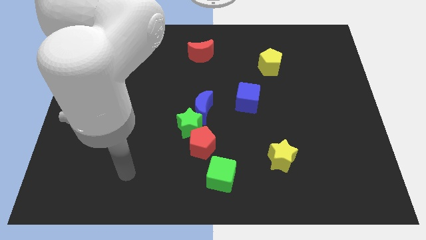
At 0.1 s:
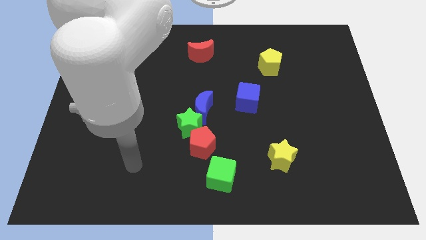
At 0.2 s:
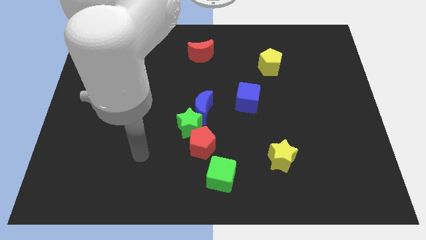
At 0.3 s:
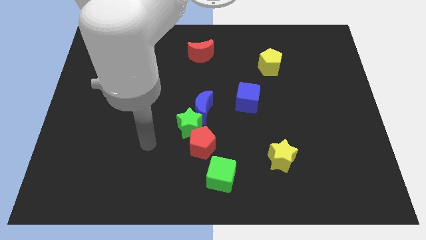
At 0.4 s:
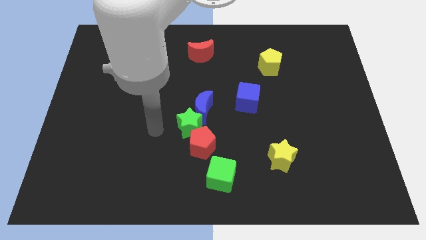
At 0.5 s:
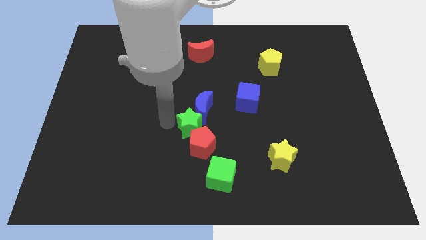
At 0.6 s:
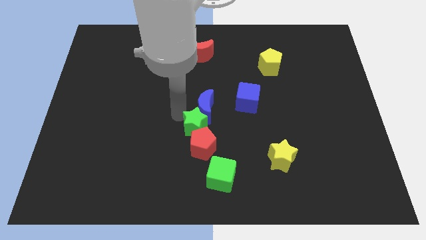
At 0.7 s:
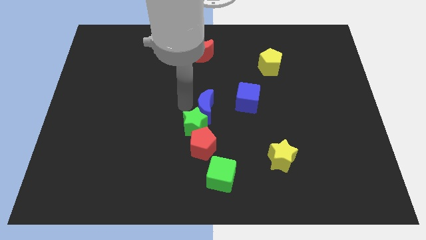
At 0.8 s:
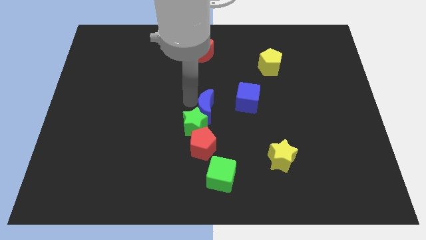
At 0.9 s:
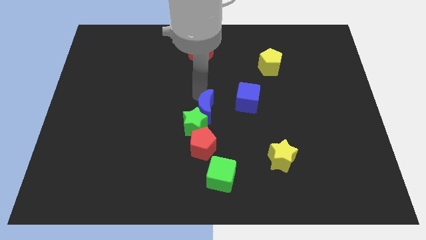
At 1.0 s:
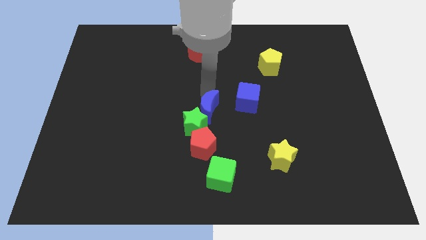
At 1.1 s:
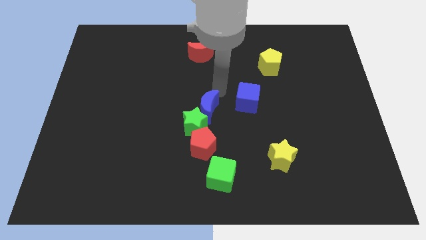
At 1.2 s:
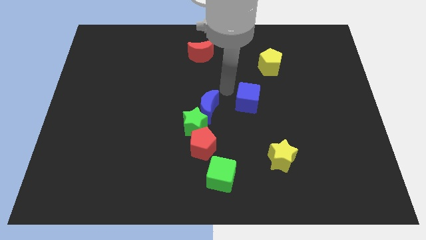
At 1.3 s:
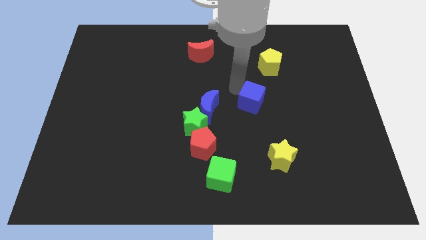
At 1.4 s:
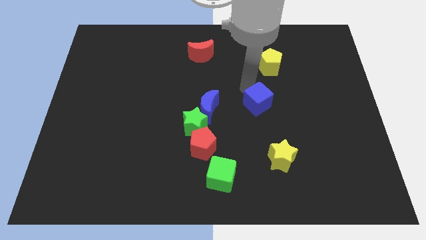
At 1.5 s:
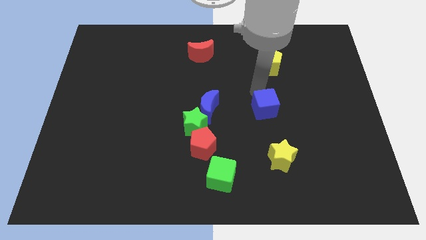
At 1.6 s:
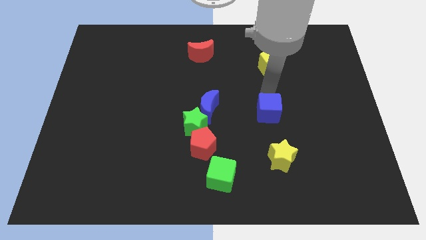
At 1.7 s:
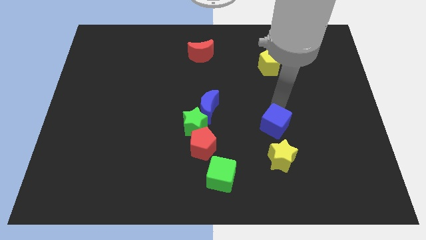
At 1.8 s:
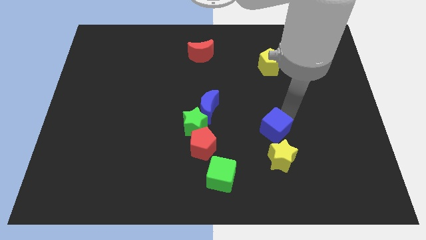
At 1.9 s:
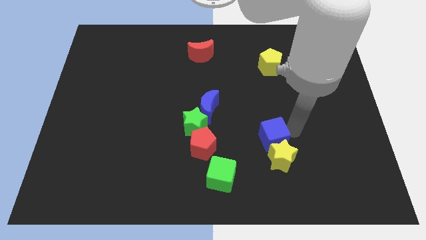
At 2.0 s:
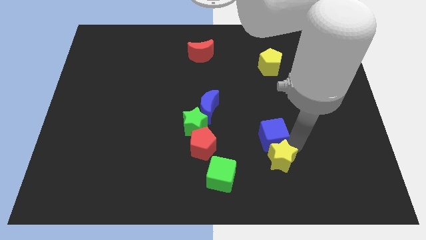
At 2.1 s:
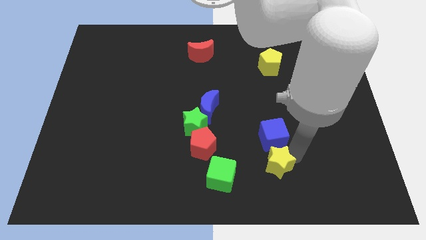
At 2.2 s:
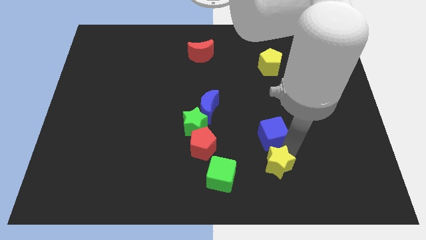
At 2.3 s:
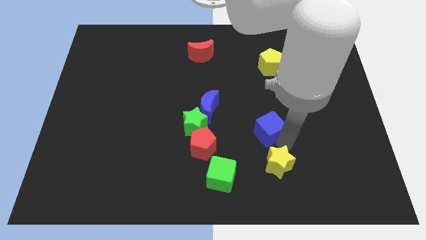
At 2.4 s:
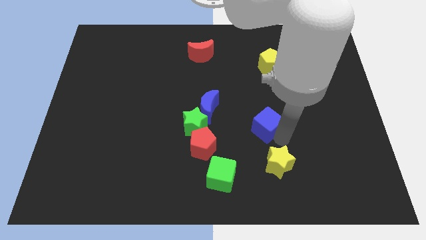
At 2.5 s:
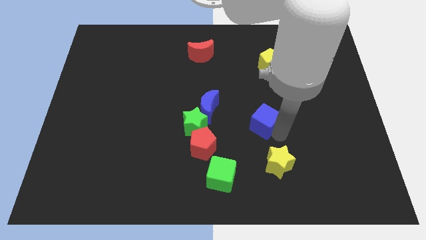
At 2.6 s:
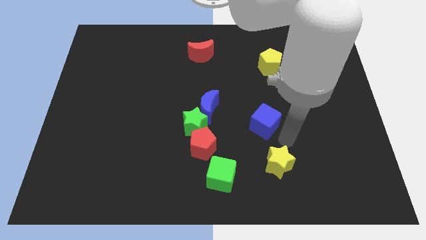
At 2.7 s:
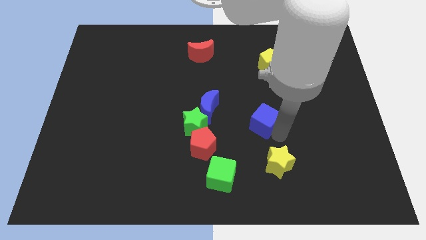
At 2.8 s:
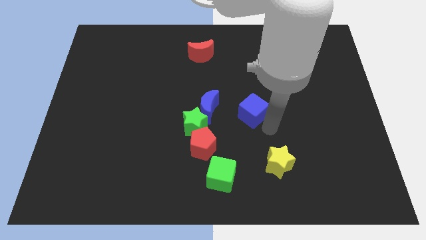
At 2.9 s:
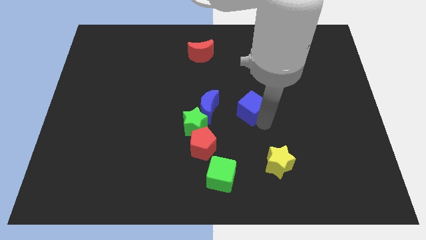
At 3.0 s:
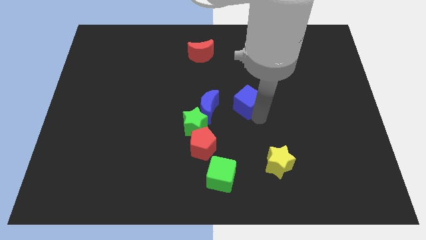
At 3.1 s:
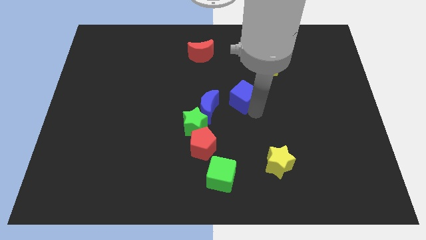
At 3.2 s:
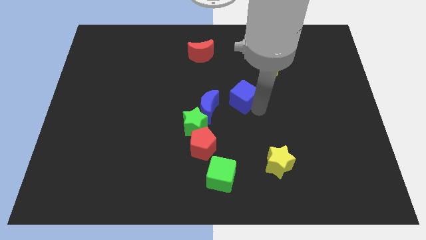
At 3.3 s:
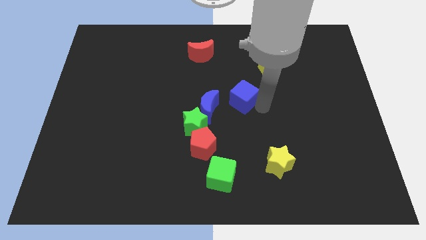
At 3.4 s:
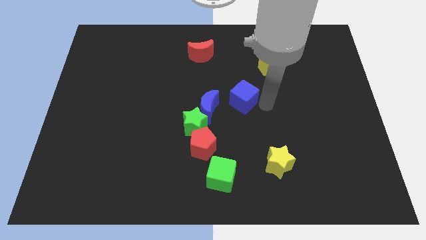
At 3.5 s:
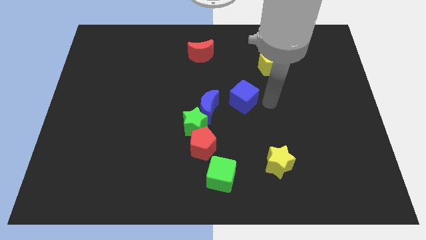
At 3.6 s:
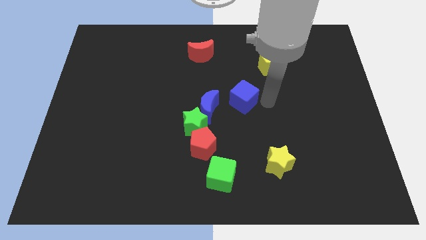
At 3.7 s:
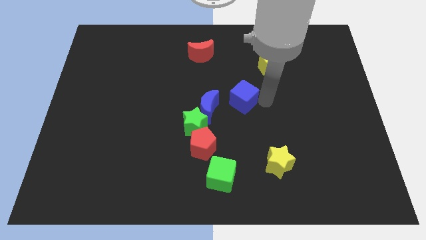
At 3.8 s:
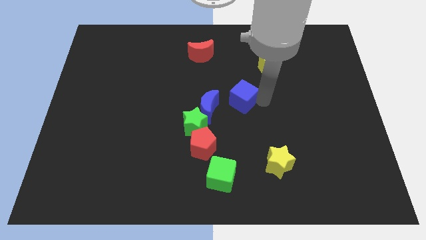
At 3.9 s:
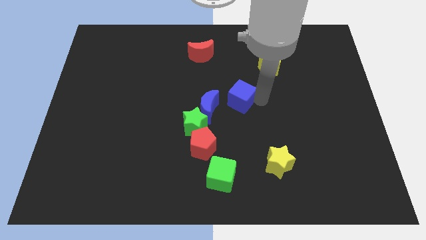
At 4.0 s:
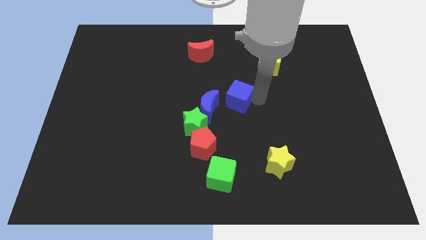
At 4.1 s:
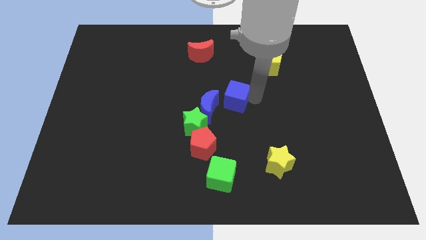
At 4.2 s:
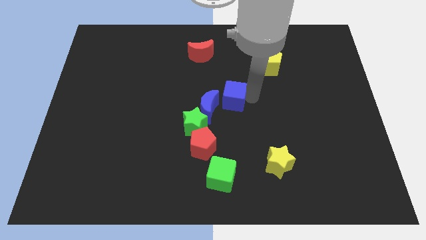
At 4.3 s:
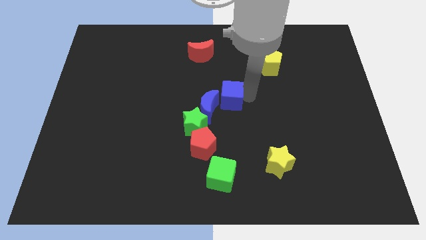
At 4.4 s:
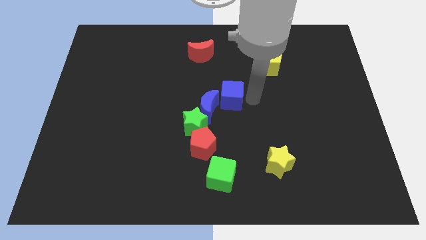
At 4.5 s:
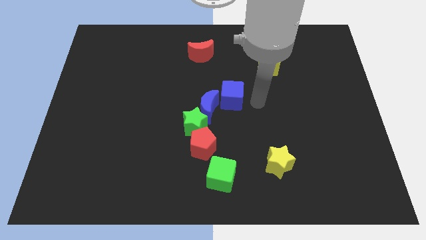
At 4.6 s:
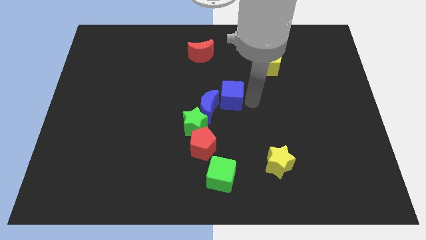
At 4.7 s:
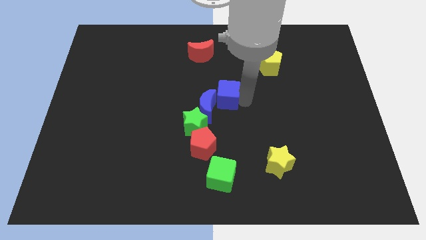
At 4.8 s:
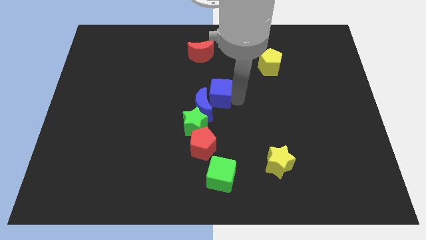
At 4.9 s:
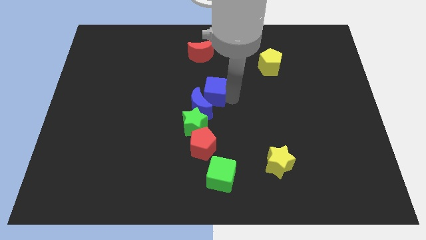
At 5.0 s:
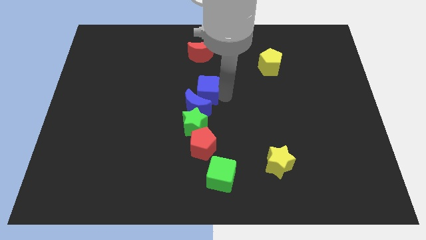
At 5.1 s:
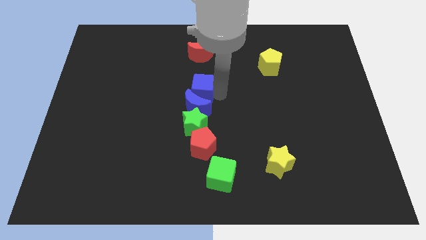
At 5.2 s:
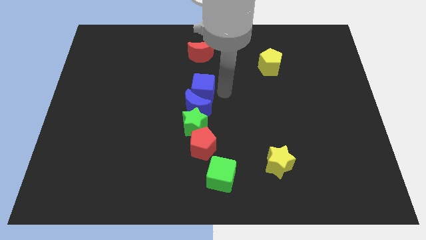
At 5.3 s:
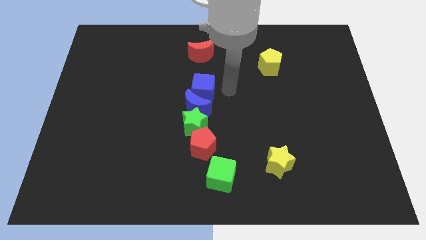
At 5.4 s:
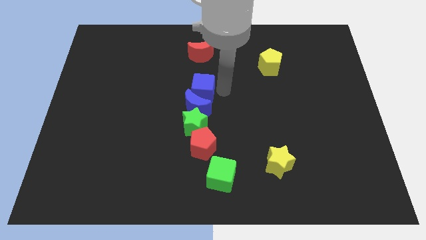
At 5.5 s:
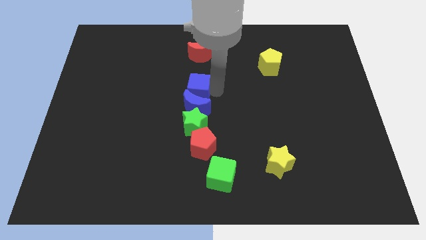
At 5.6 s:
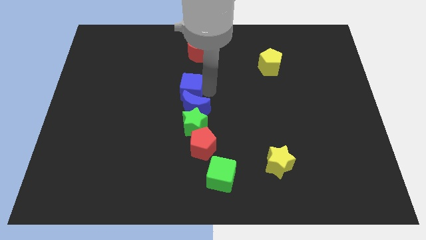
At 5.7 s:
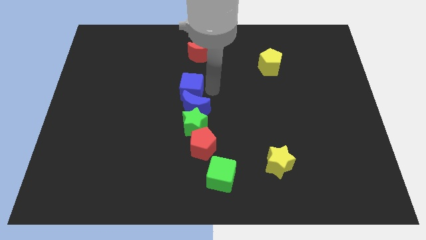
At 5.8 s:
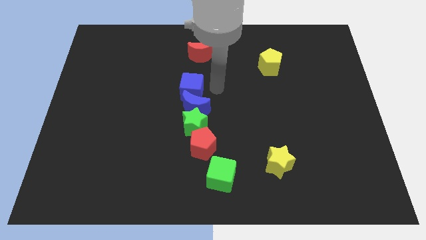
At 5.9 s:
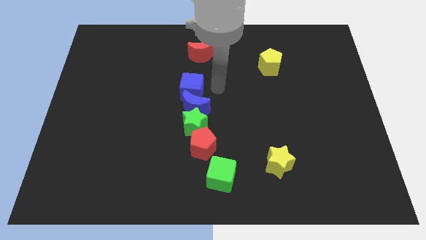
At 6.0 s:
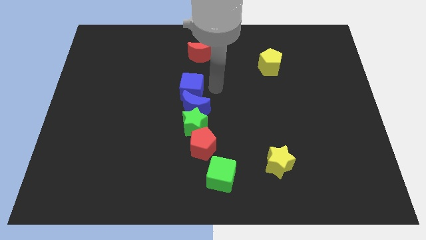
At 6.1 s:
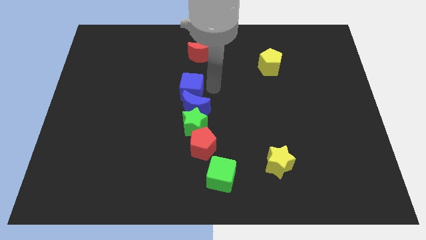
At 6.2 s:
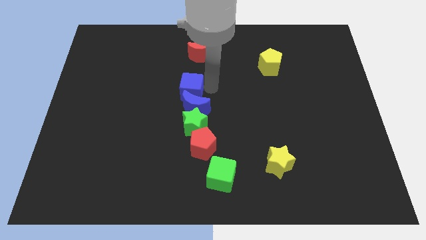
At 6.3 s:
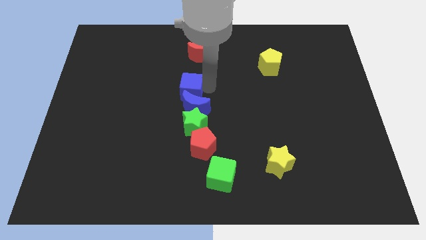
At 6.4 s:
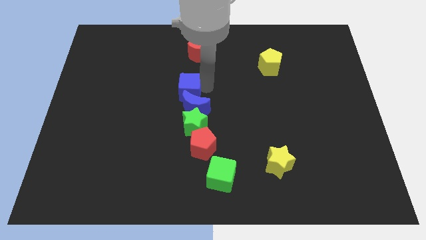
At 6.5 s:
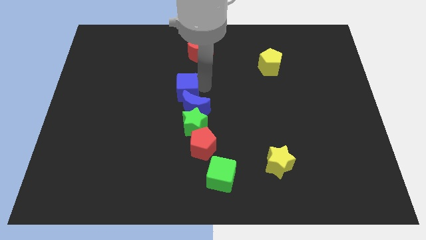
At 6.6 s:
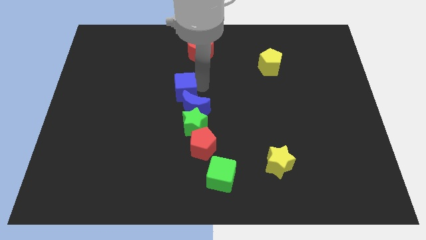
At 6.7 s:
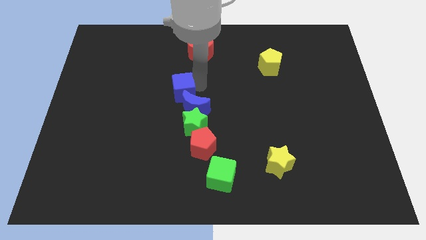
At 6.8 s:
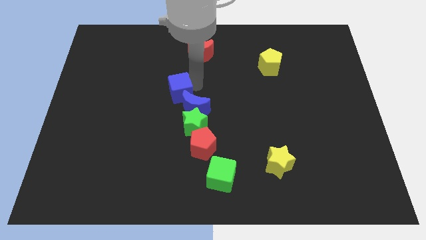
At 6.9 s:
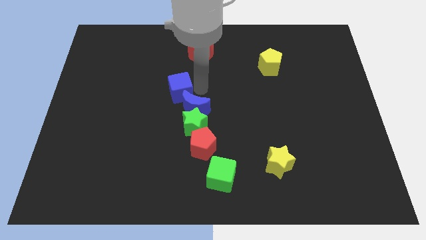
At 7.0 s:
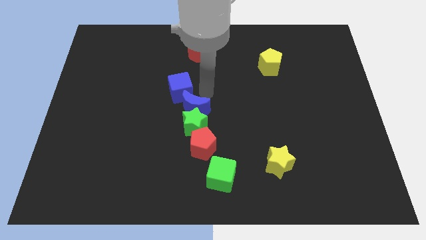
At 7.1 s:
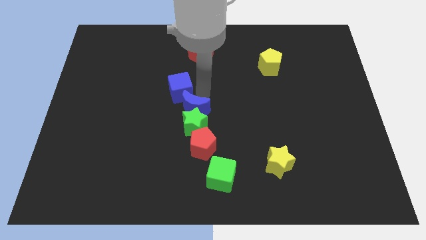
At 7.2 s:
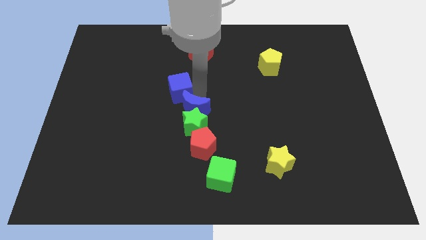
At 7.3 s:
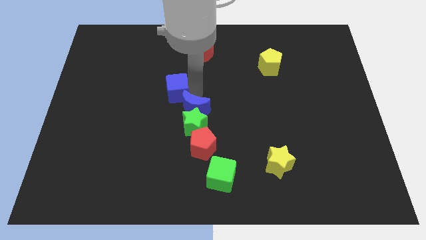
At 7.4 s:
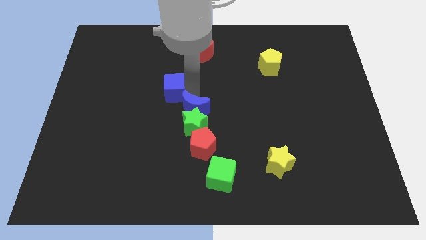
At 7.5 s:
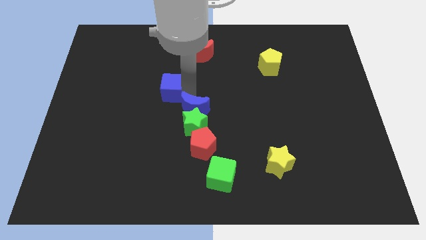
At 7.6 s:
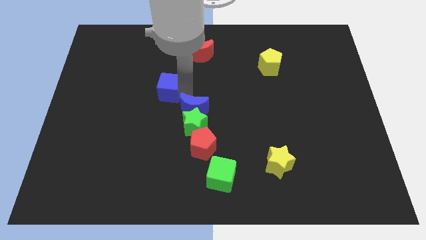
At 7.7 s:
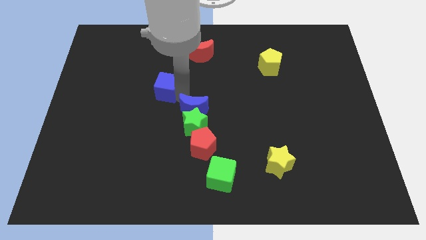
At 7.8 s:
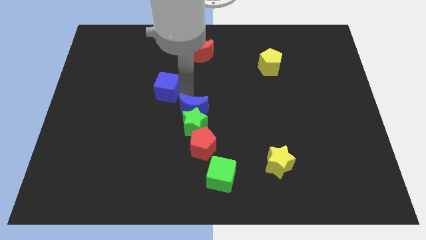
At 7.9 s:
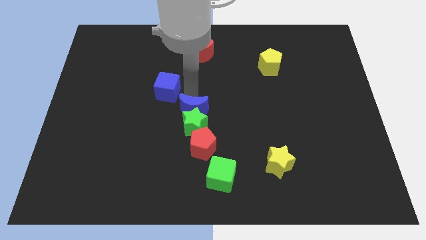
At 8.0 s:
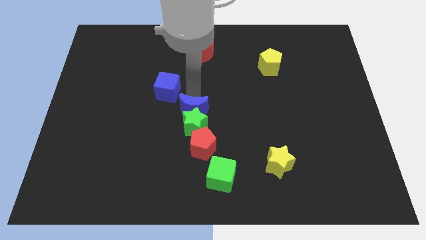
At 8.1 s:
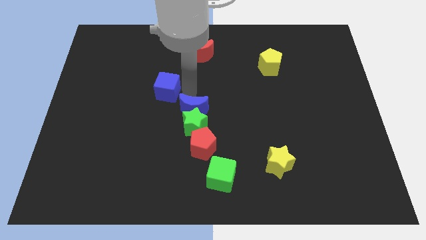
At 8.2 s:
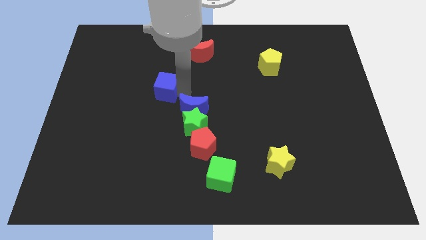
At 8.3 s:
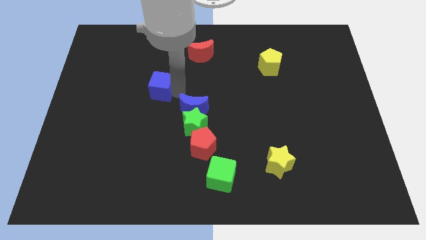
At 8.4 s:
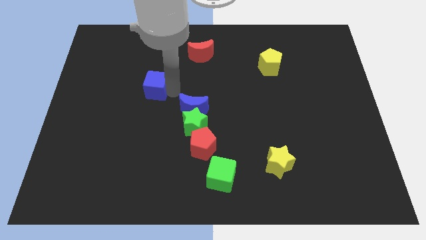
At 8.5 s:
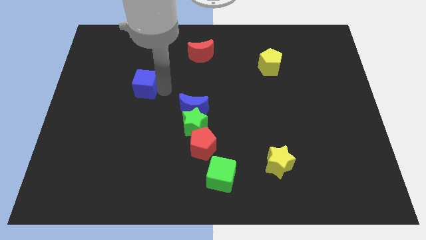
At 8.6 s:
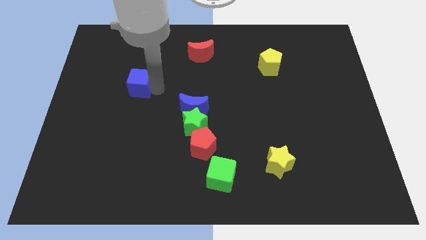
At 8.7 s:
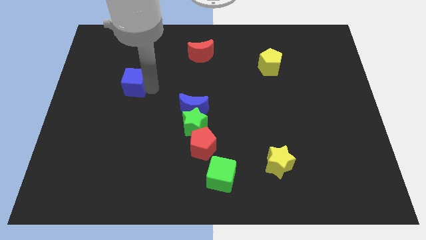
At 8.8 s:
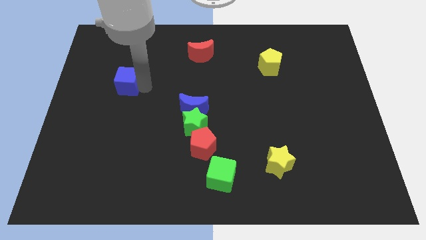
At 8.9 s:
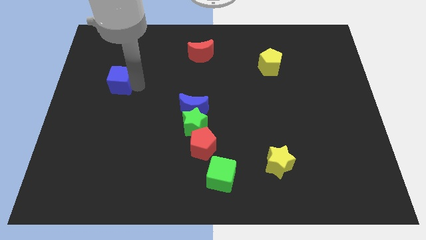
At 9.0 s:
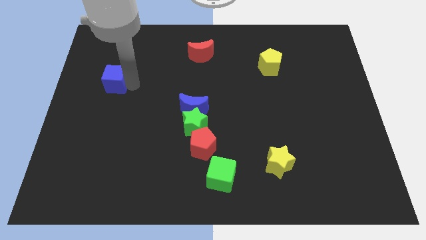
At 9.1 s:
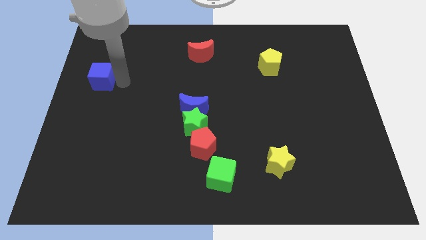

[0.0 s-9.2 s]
push the blue cube to the center left
